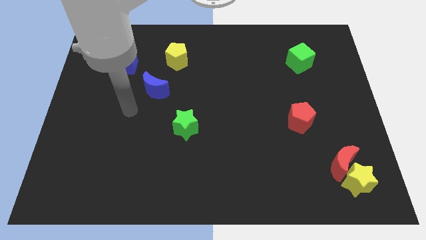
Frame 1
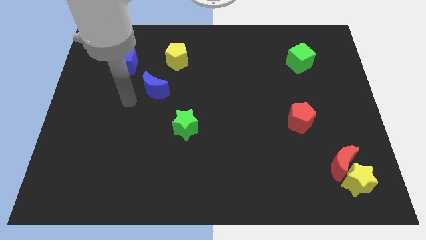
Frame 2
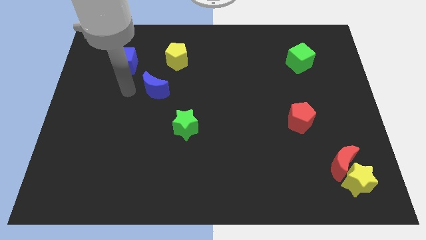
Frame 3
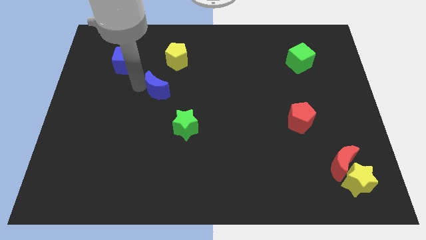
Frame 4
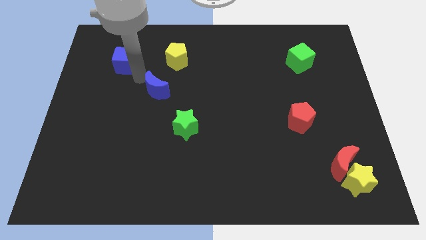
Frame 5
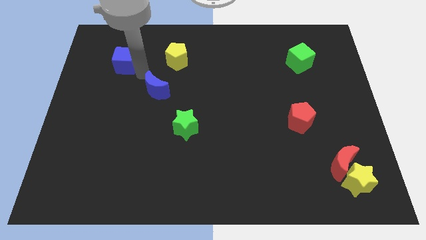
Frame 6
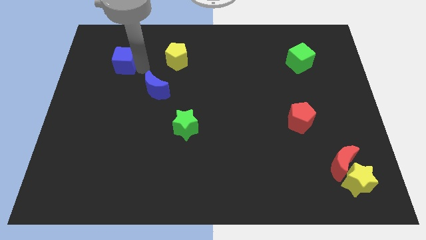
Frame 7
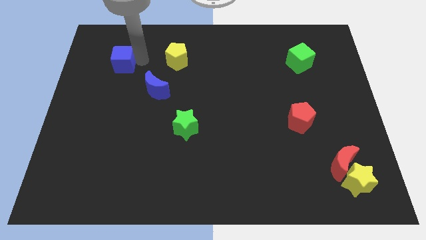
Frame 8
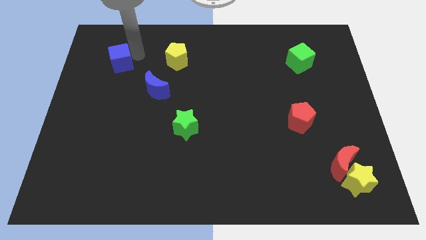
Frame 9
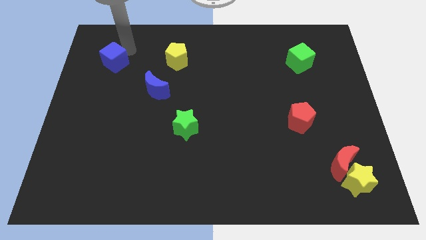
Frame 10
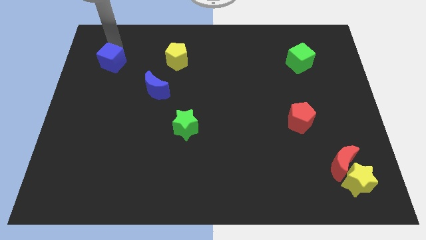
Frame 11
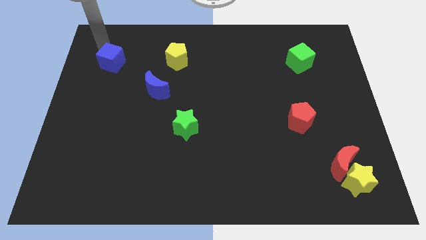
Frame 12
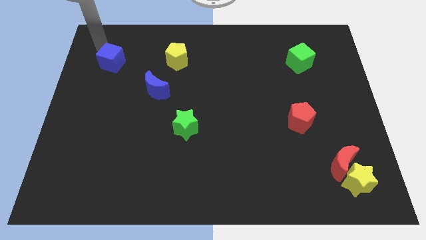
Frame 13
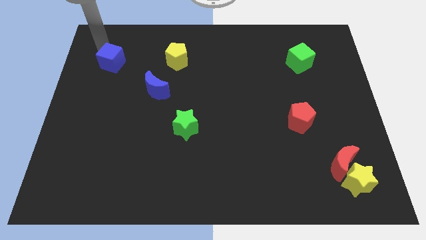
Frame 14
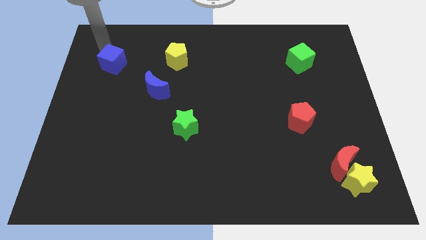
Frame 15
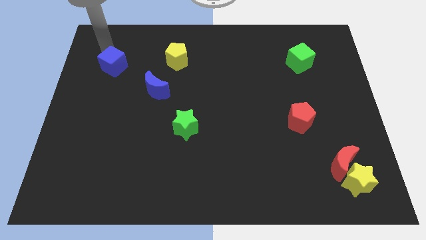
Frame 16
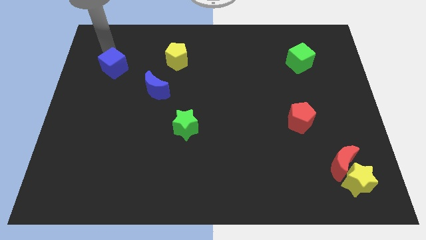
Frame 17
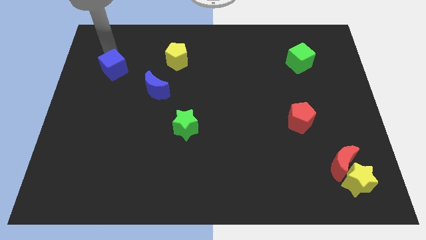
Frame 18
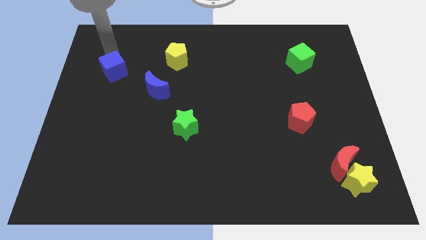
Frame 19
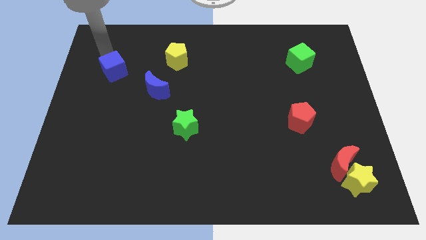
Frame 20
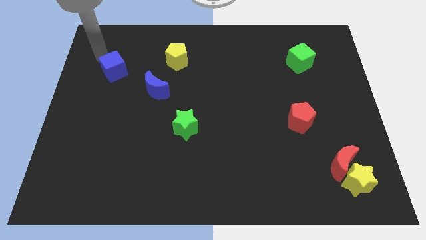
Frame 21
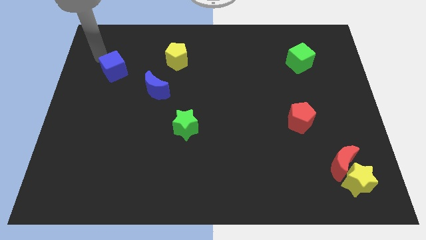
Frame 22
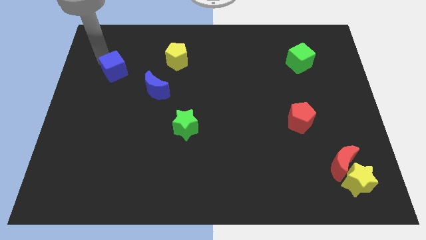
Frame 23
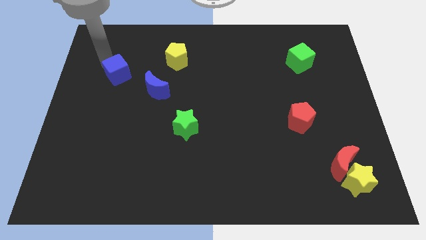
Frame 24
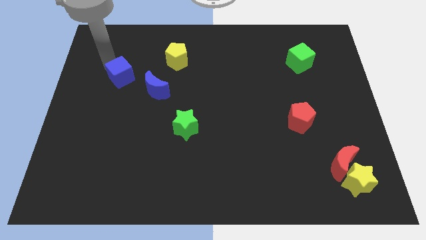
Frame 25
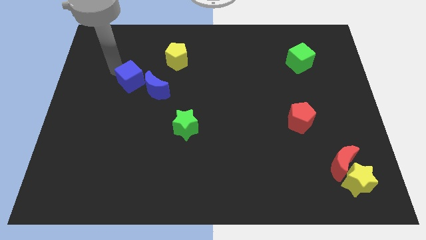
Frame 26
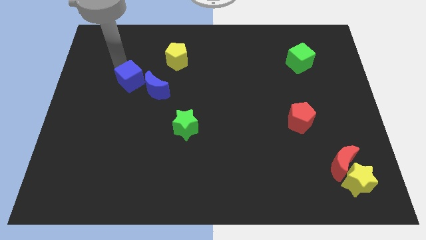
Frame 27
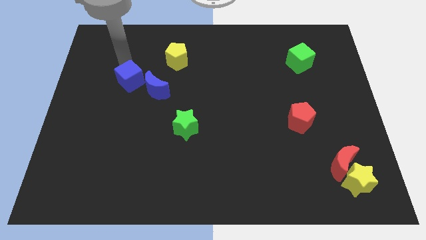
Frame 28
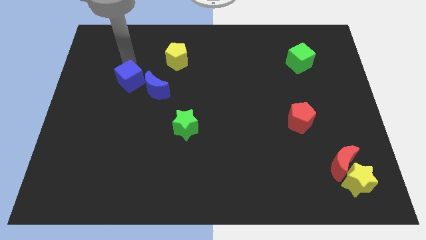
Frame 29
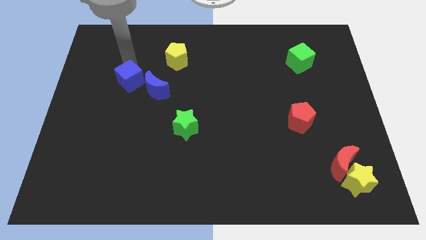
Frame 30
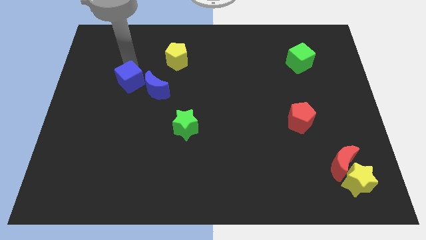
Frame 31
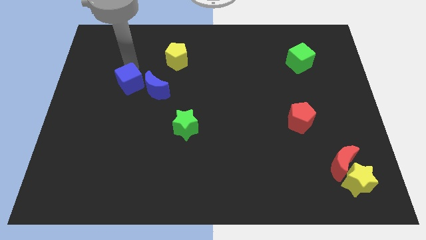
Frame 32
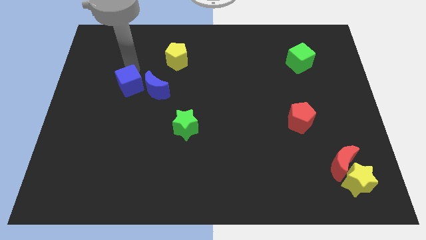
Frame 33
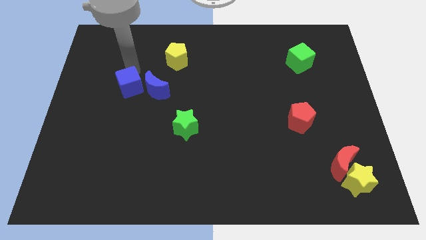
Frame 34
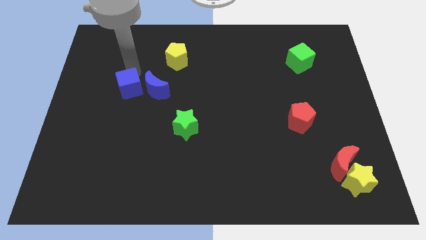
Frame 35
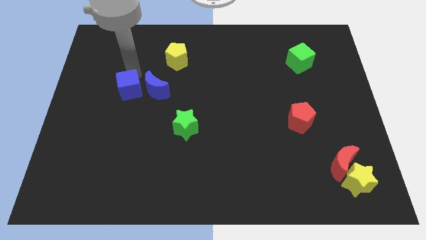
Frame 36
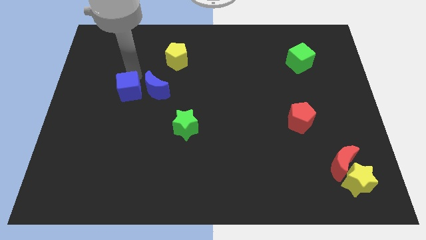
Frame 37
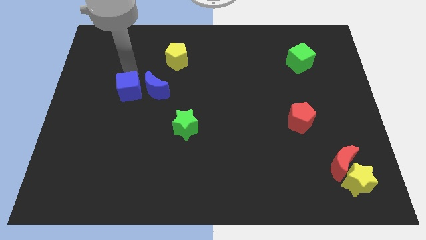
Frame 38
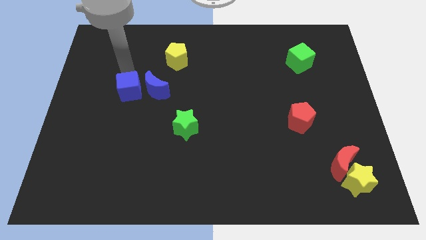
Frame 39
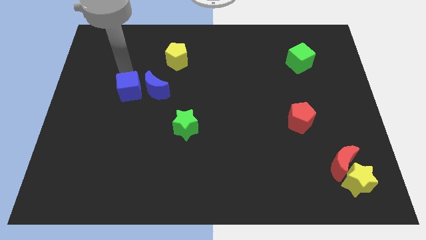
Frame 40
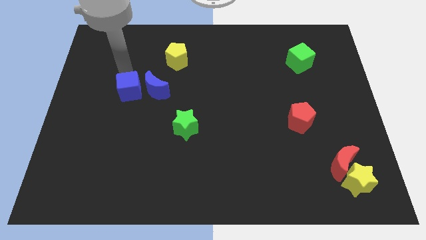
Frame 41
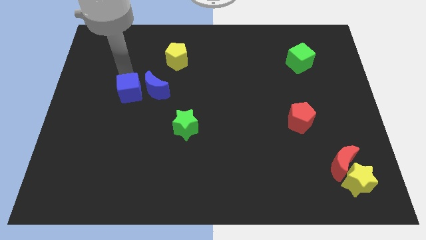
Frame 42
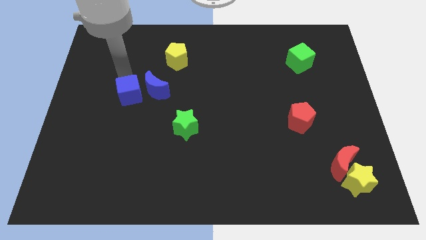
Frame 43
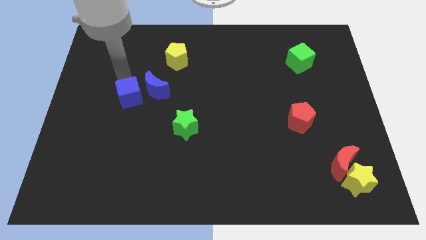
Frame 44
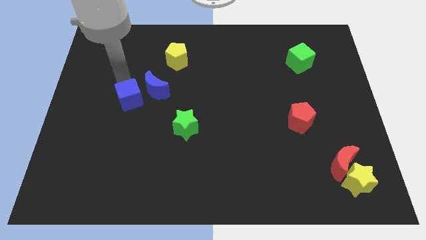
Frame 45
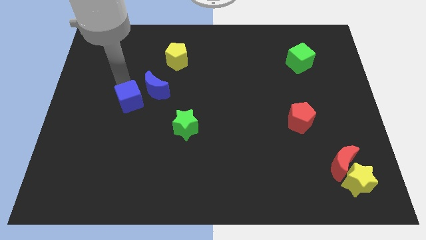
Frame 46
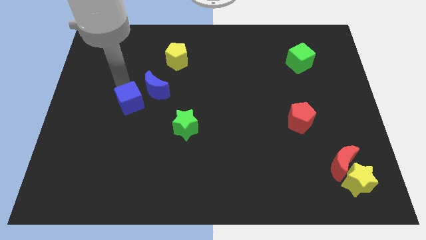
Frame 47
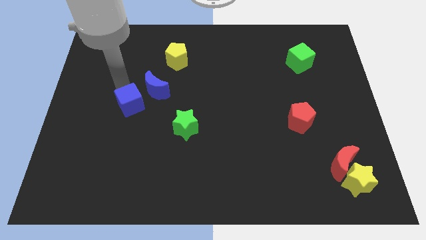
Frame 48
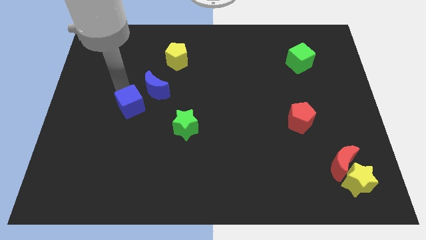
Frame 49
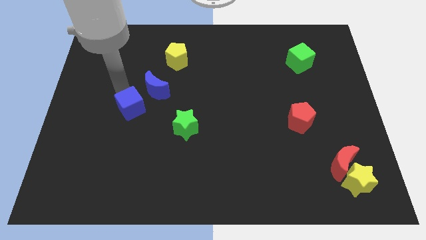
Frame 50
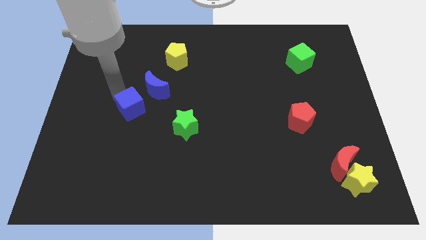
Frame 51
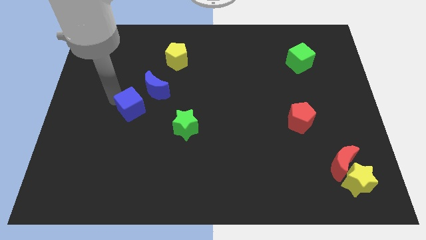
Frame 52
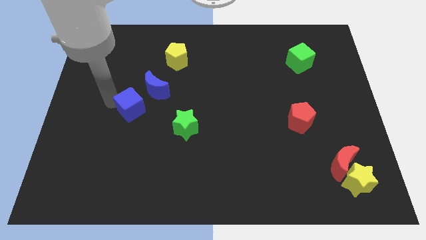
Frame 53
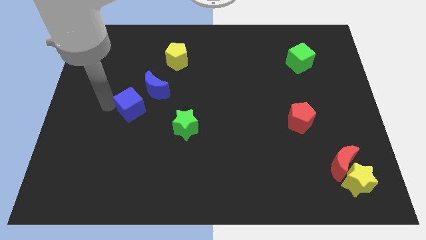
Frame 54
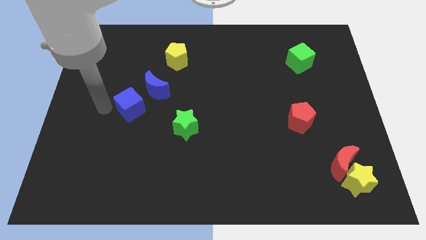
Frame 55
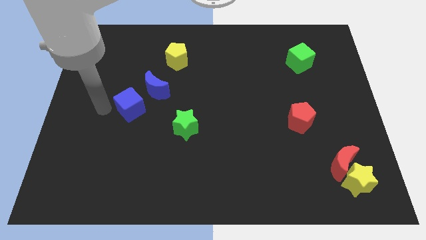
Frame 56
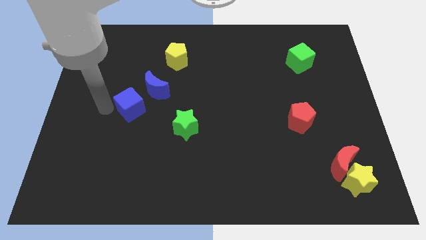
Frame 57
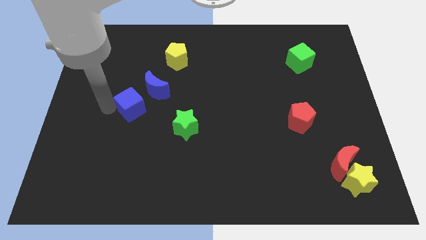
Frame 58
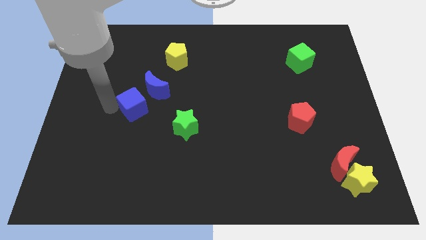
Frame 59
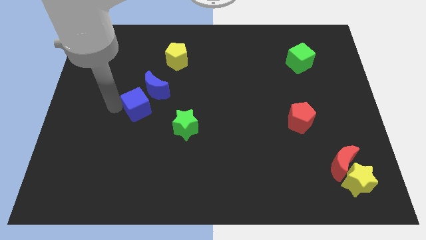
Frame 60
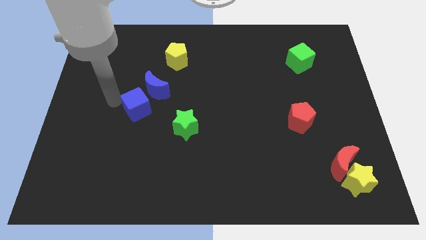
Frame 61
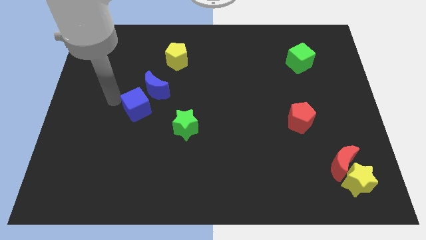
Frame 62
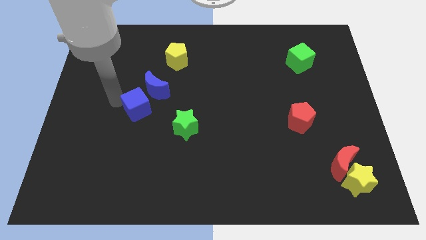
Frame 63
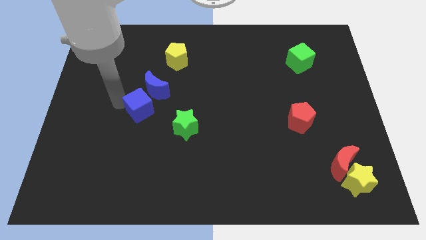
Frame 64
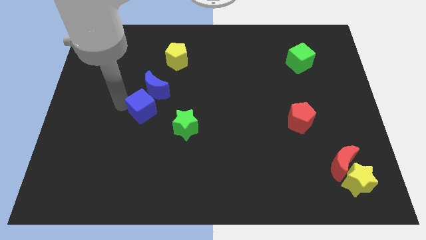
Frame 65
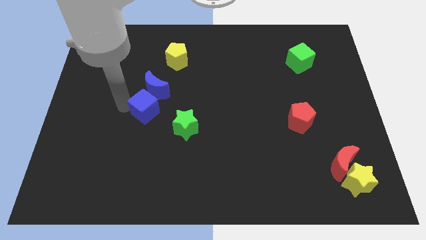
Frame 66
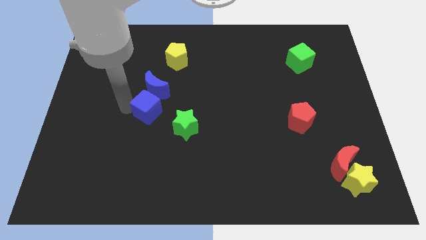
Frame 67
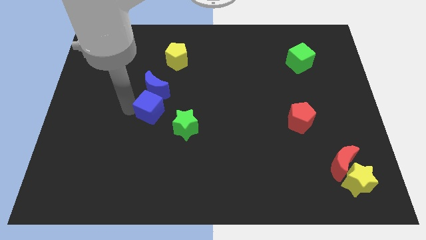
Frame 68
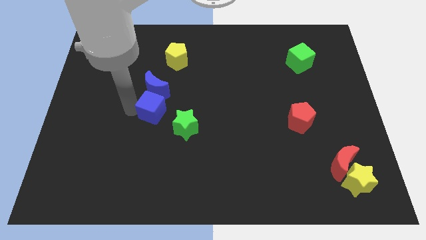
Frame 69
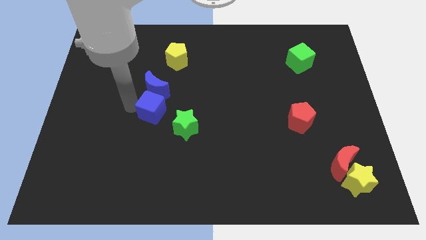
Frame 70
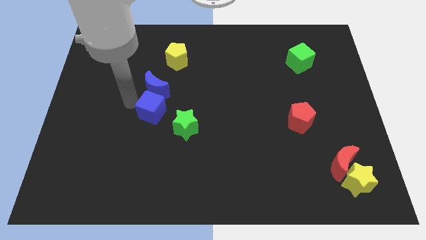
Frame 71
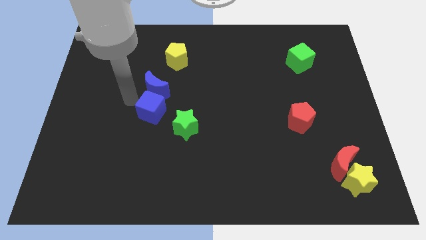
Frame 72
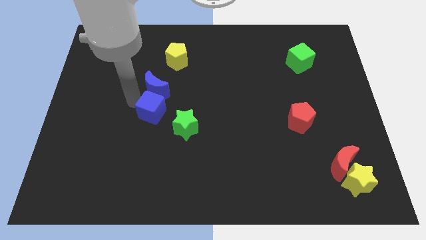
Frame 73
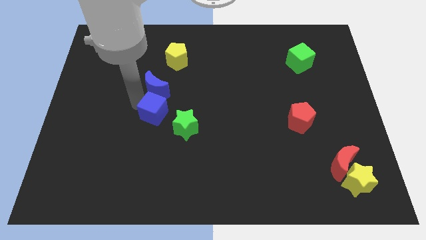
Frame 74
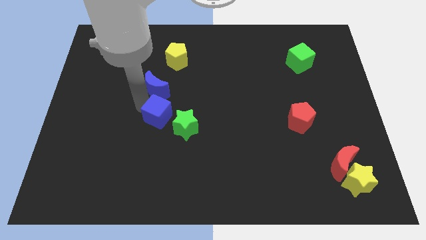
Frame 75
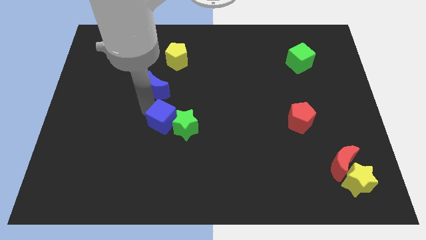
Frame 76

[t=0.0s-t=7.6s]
move the blue cube next to the green star

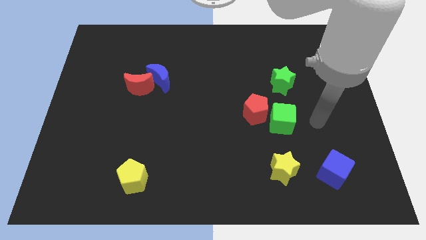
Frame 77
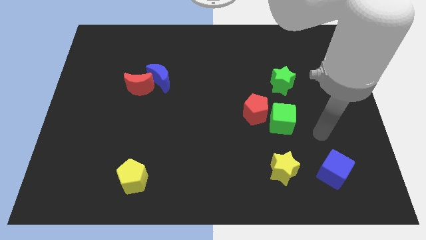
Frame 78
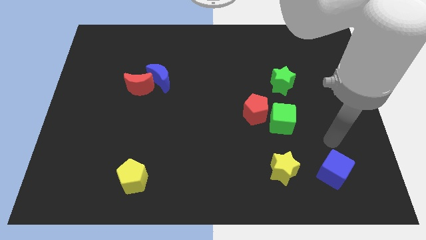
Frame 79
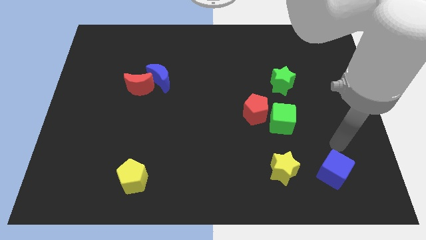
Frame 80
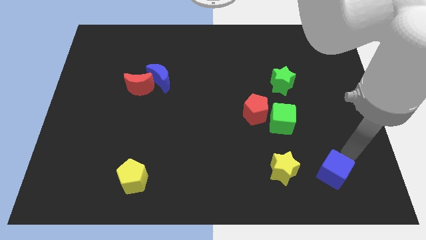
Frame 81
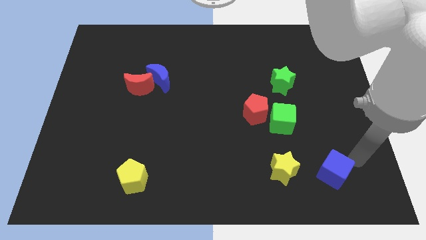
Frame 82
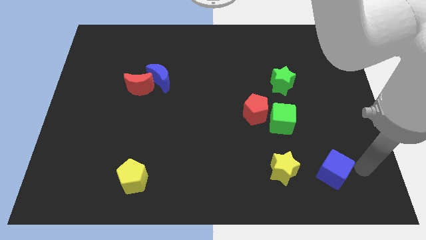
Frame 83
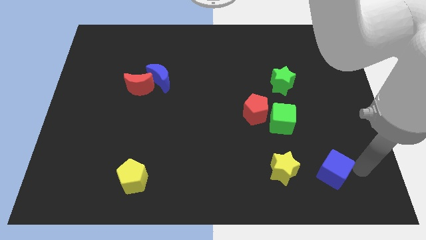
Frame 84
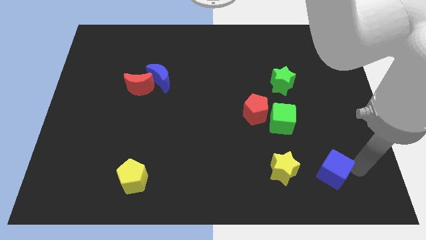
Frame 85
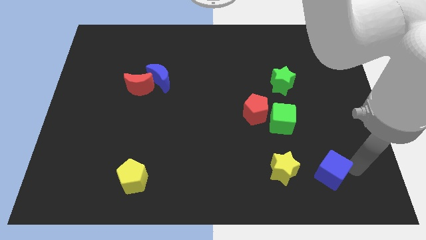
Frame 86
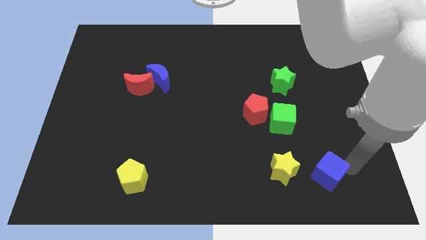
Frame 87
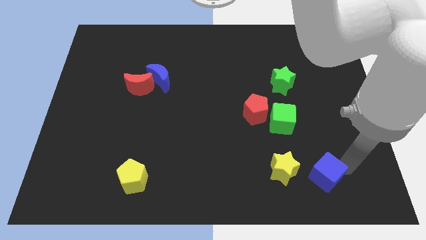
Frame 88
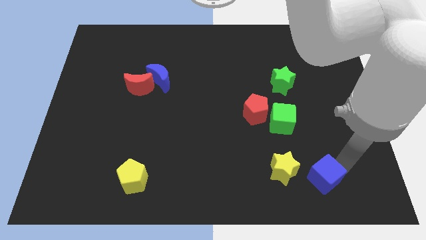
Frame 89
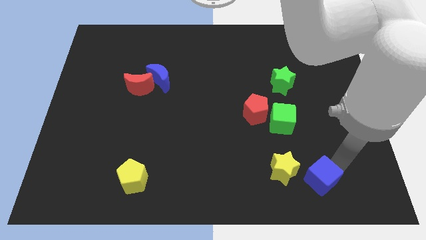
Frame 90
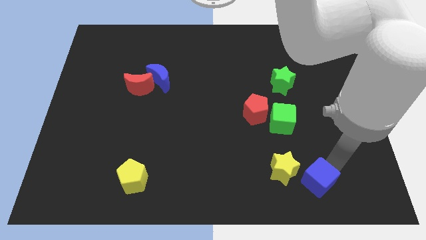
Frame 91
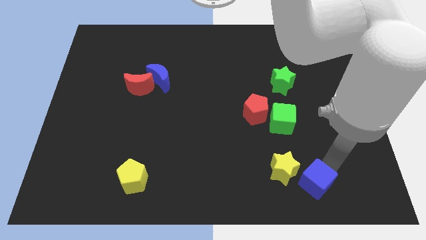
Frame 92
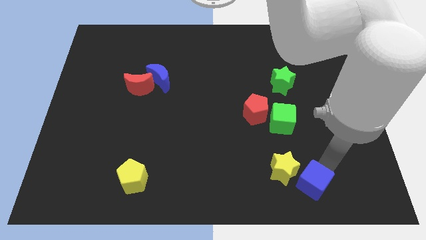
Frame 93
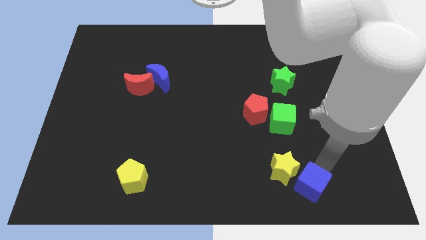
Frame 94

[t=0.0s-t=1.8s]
push the blue cube to the yellow star
